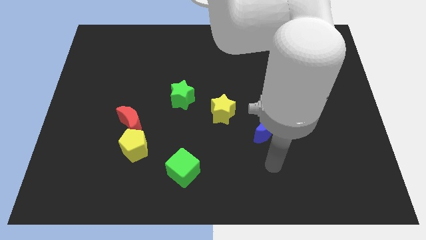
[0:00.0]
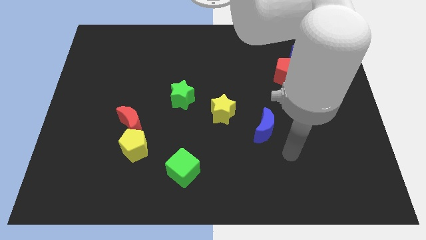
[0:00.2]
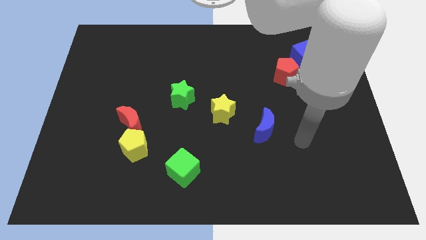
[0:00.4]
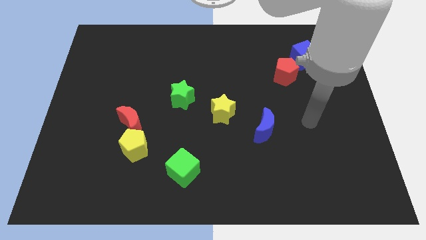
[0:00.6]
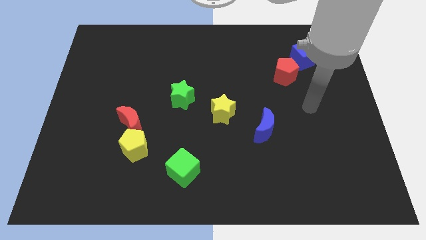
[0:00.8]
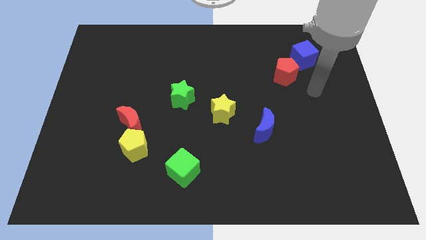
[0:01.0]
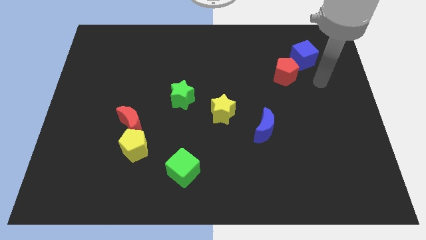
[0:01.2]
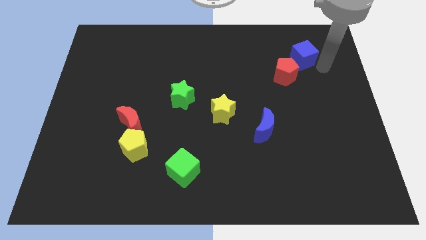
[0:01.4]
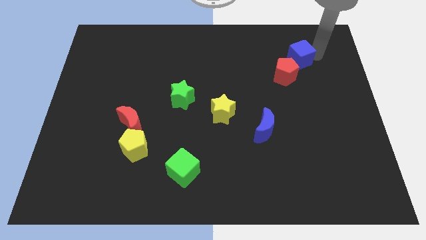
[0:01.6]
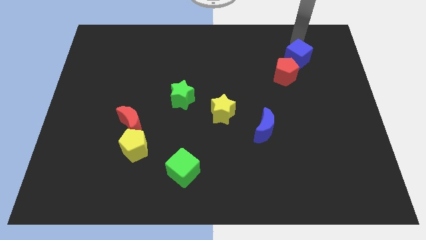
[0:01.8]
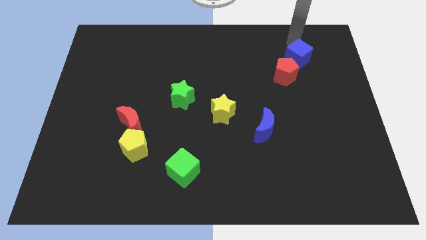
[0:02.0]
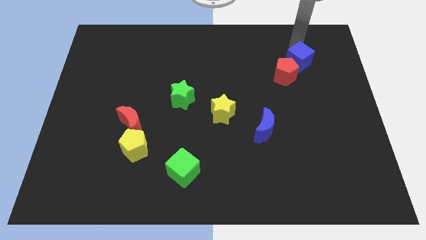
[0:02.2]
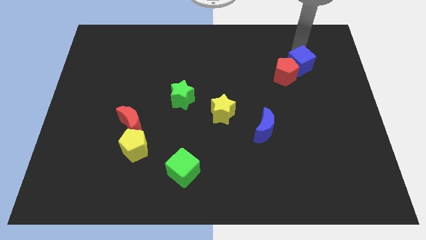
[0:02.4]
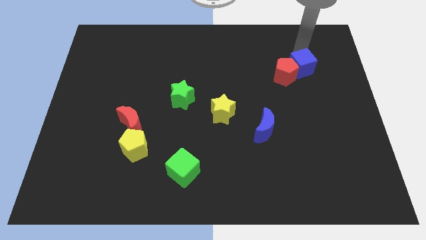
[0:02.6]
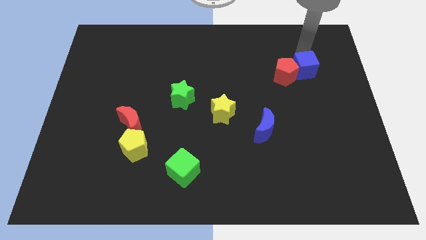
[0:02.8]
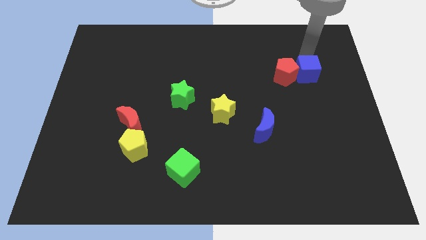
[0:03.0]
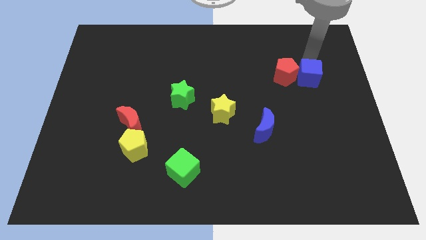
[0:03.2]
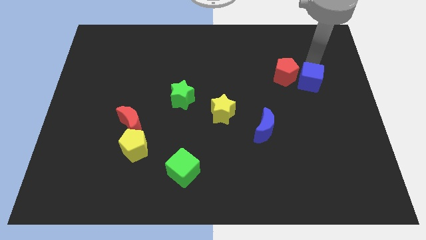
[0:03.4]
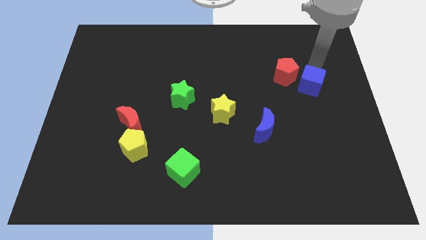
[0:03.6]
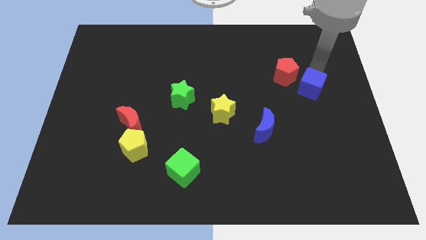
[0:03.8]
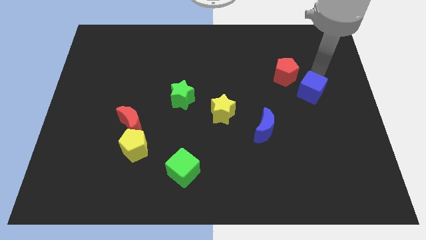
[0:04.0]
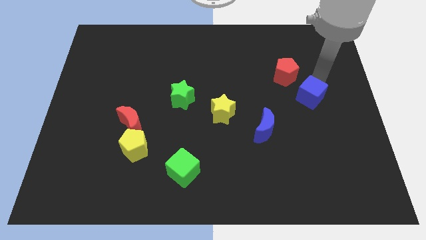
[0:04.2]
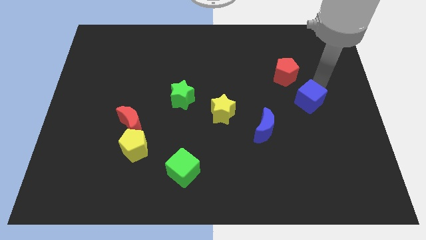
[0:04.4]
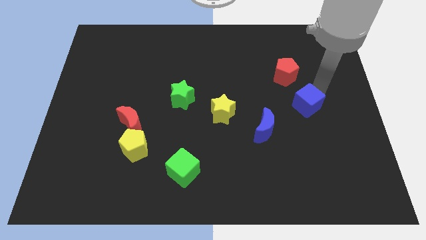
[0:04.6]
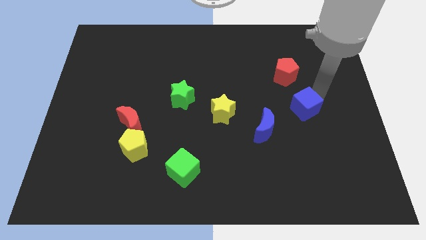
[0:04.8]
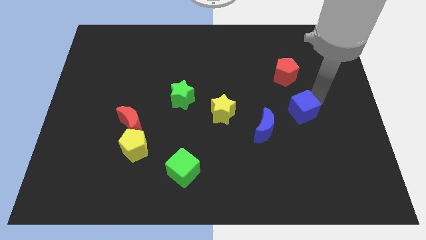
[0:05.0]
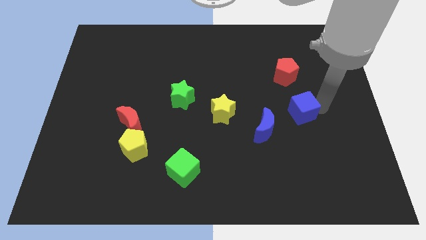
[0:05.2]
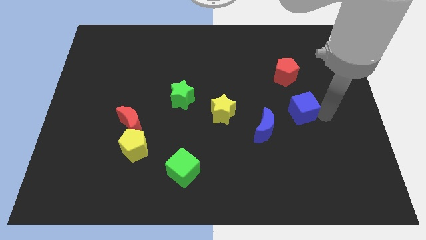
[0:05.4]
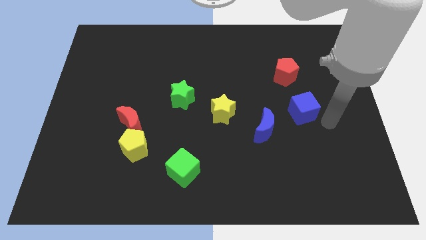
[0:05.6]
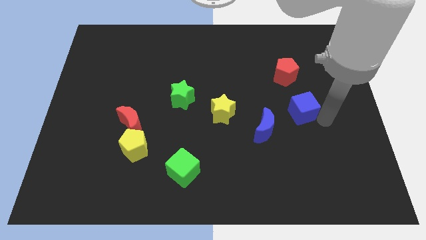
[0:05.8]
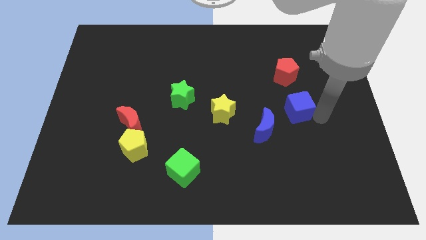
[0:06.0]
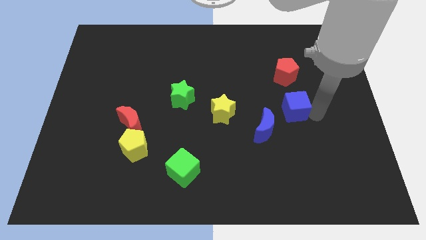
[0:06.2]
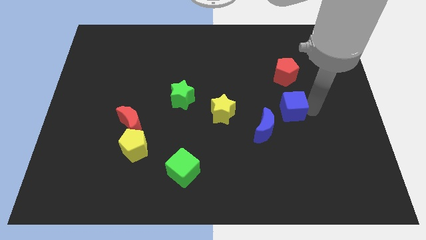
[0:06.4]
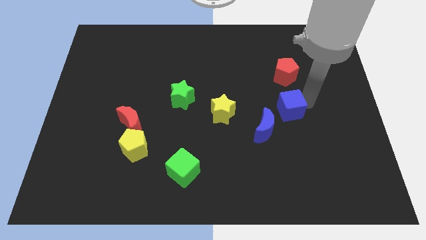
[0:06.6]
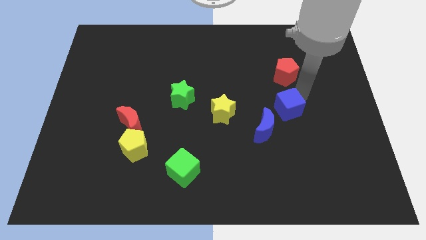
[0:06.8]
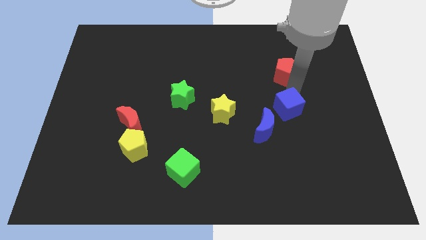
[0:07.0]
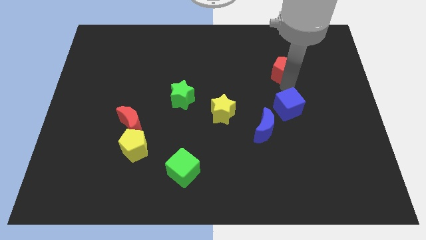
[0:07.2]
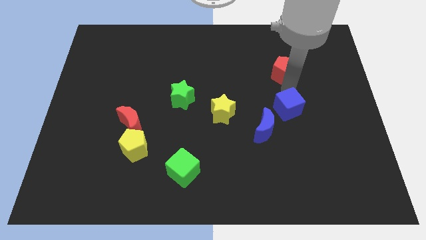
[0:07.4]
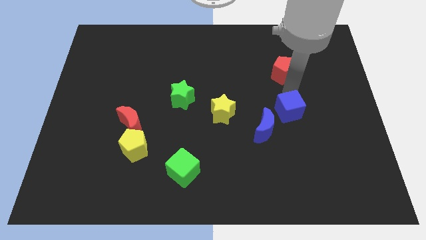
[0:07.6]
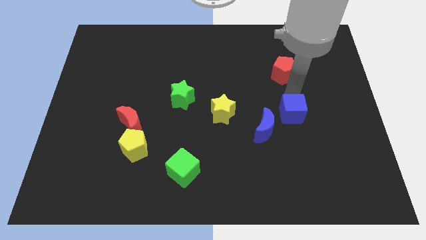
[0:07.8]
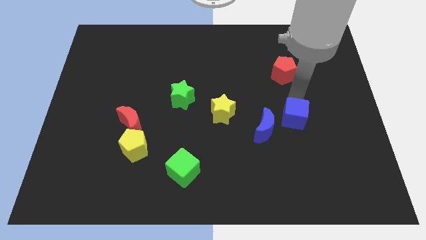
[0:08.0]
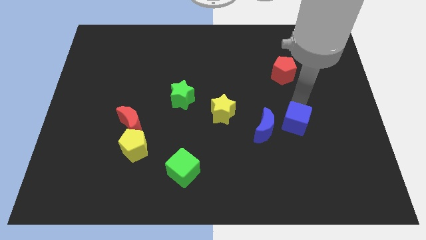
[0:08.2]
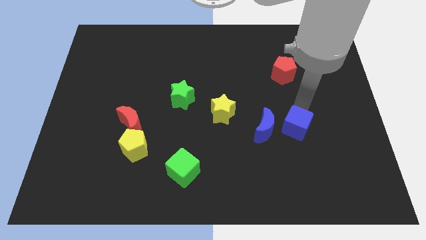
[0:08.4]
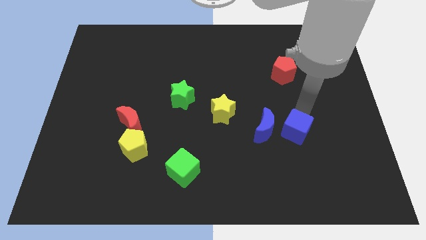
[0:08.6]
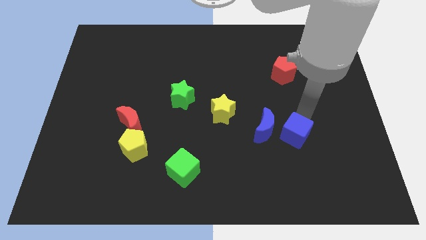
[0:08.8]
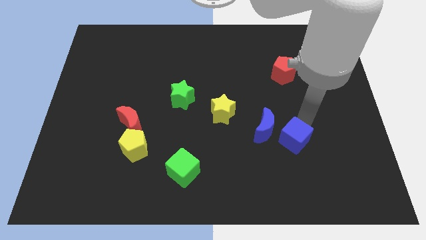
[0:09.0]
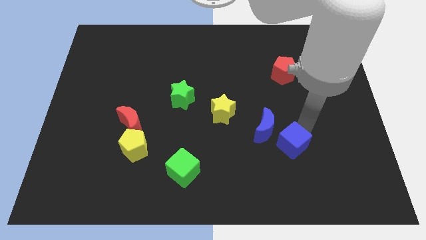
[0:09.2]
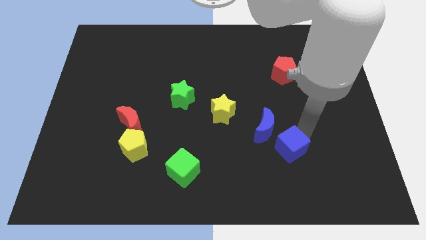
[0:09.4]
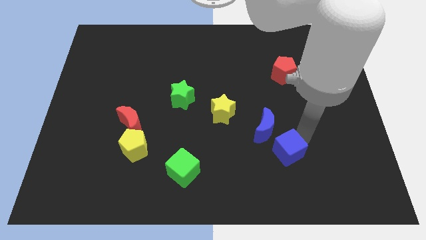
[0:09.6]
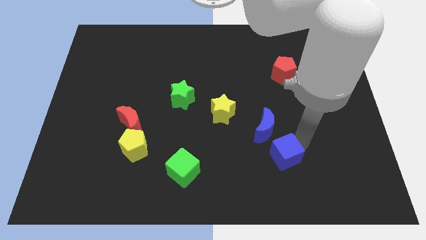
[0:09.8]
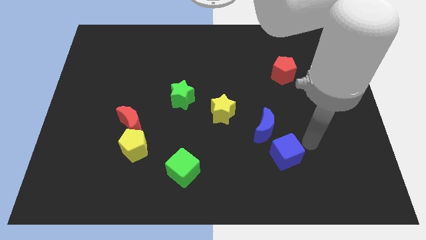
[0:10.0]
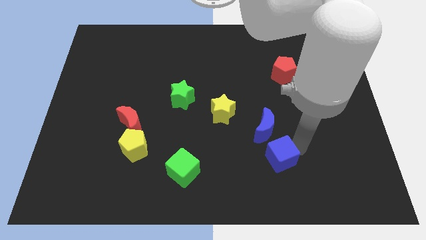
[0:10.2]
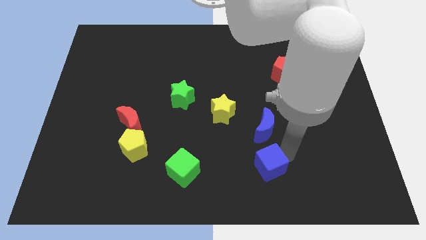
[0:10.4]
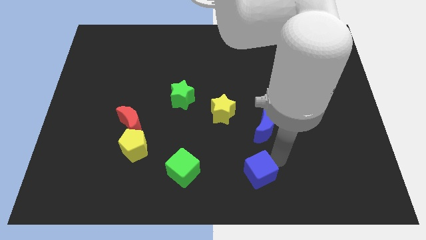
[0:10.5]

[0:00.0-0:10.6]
slide the blue cube to the bottom side

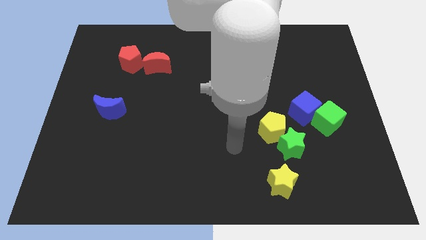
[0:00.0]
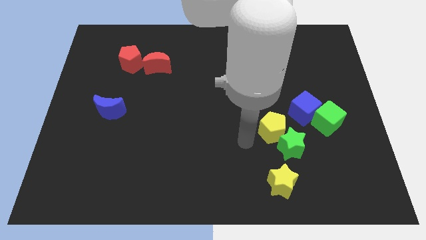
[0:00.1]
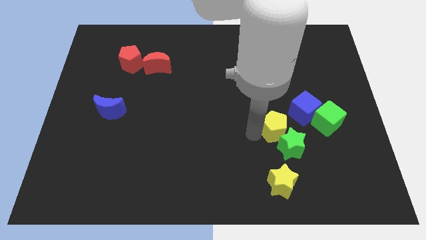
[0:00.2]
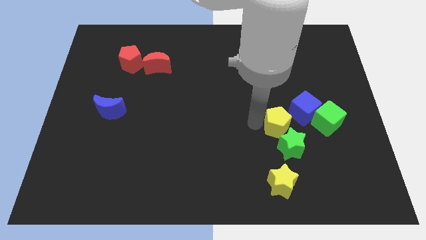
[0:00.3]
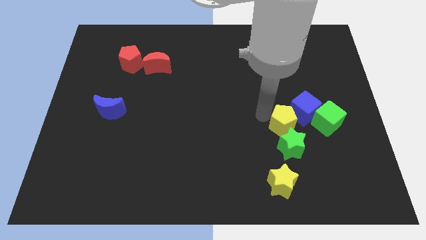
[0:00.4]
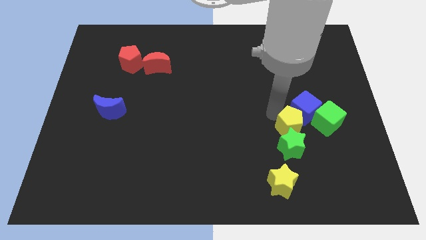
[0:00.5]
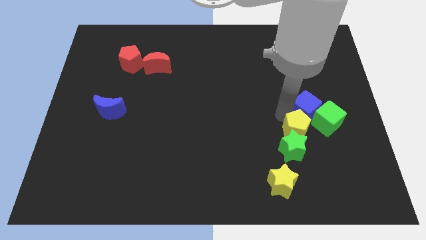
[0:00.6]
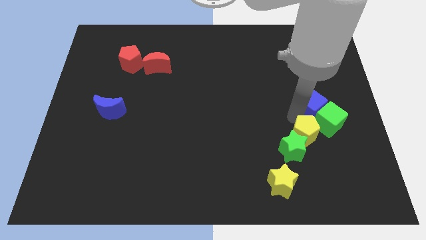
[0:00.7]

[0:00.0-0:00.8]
move the green cube to the center right
